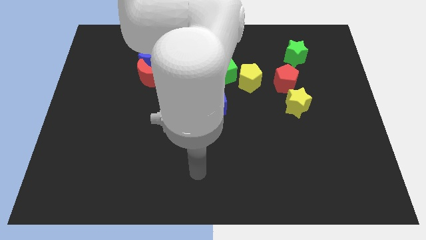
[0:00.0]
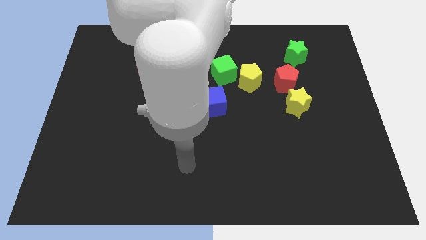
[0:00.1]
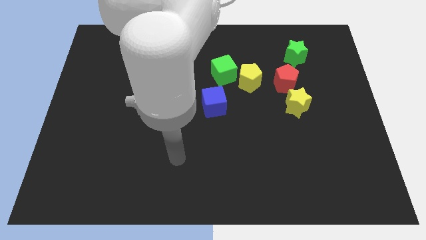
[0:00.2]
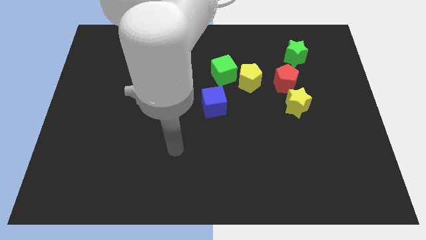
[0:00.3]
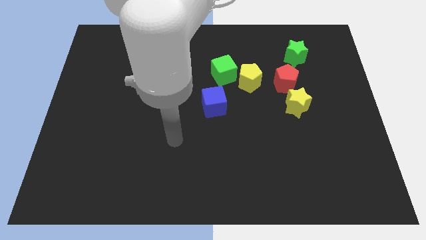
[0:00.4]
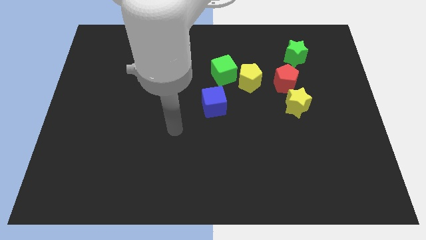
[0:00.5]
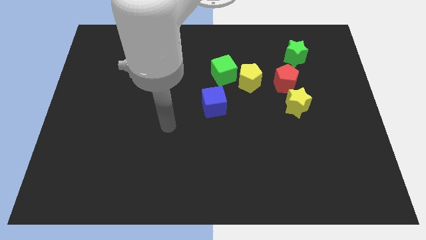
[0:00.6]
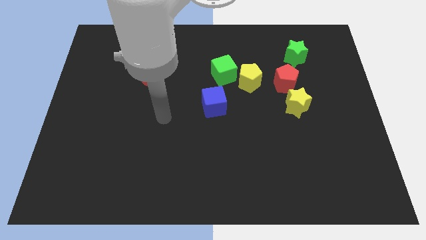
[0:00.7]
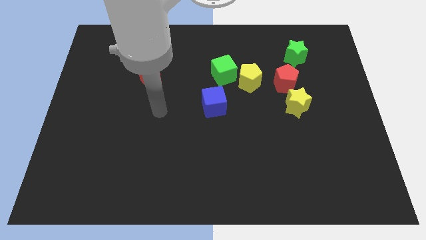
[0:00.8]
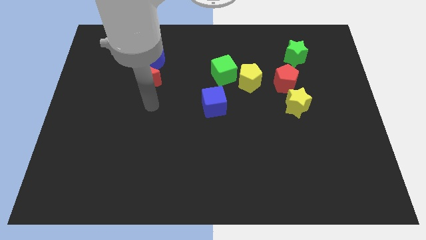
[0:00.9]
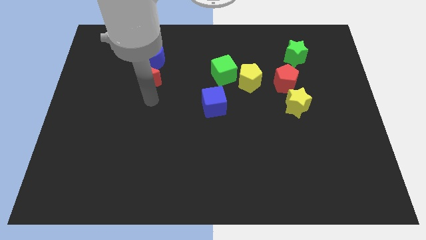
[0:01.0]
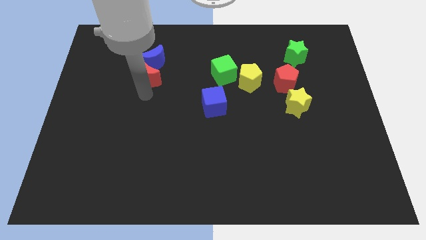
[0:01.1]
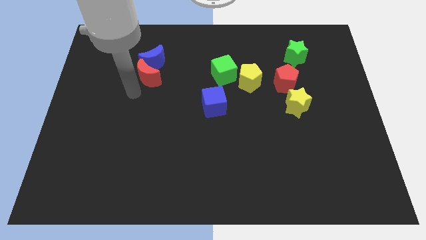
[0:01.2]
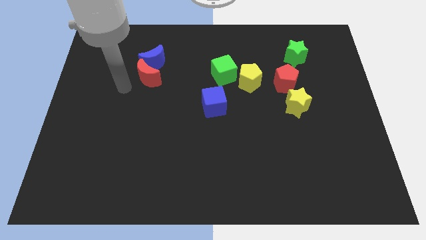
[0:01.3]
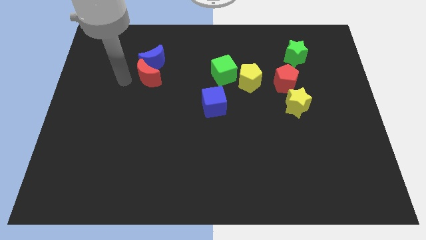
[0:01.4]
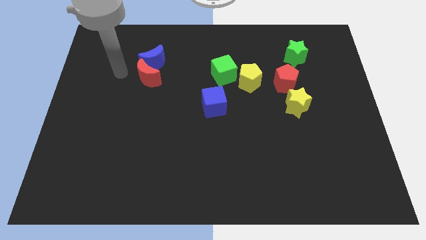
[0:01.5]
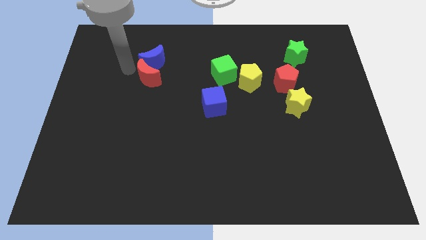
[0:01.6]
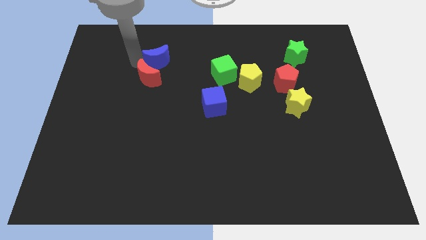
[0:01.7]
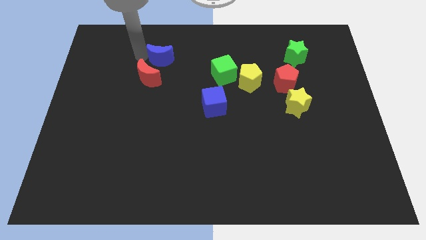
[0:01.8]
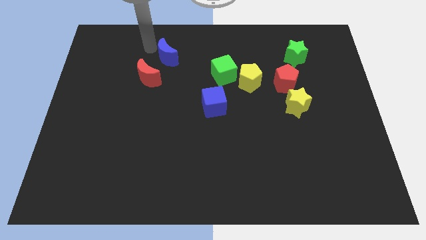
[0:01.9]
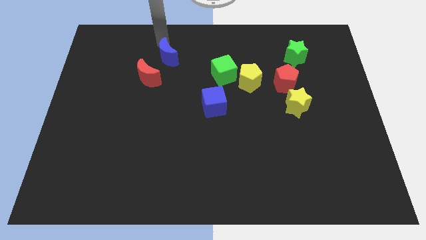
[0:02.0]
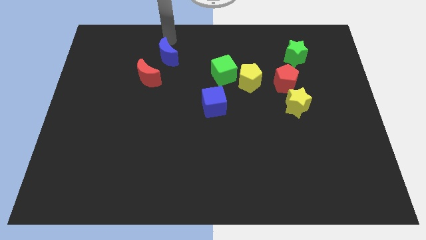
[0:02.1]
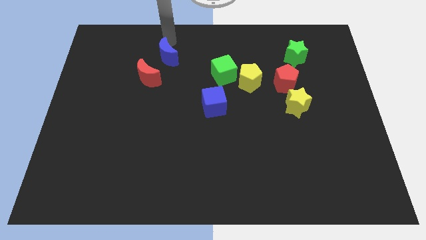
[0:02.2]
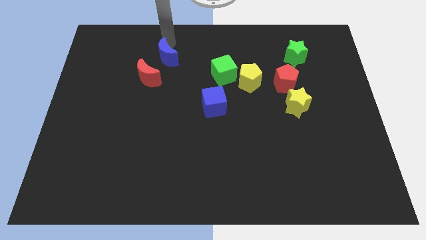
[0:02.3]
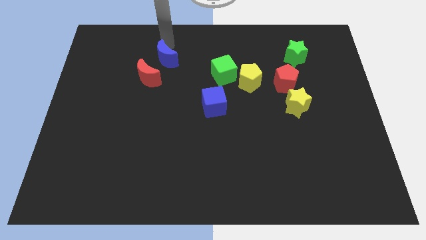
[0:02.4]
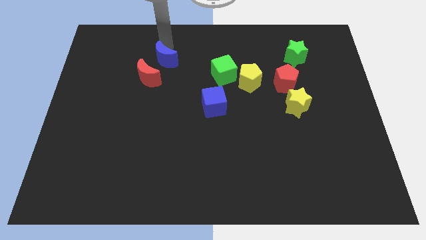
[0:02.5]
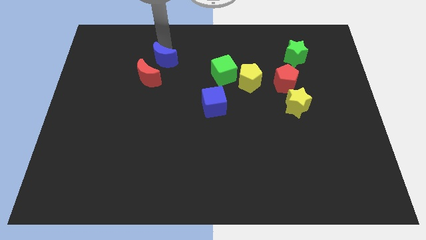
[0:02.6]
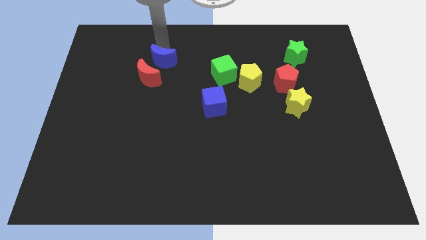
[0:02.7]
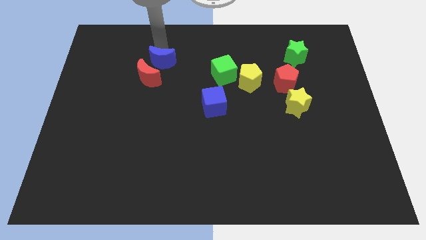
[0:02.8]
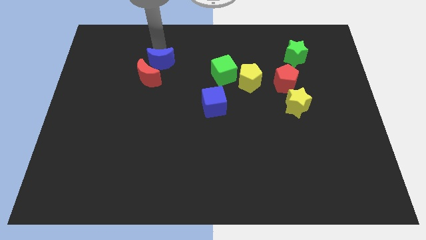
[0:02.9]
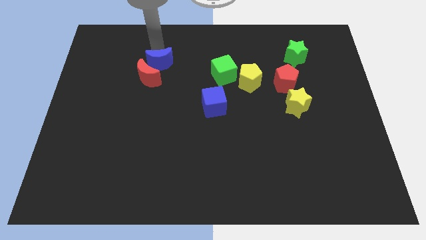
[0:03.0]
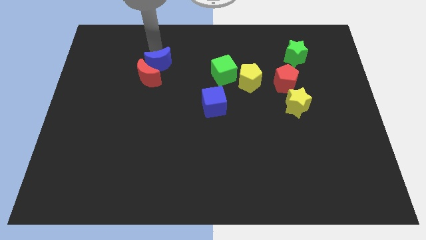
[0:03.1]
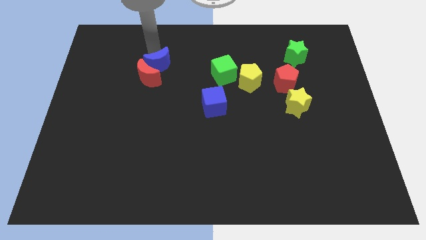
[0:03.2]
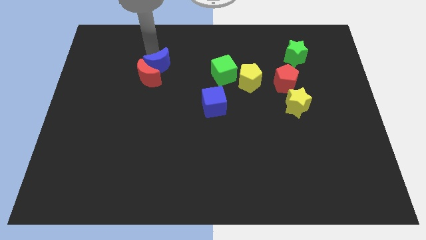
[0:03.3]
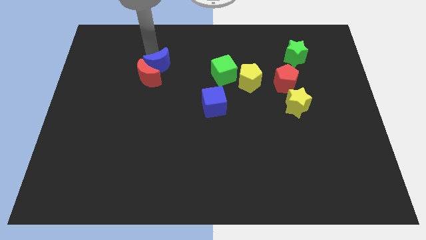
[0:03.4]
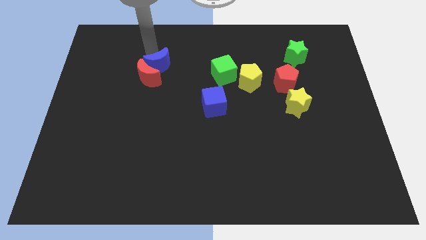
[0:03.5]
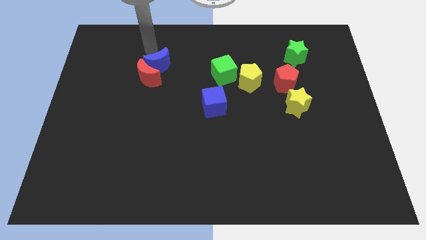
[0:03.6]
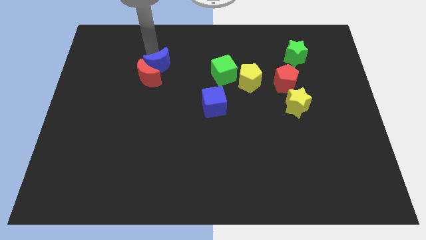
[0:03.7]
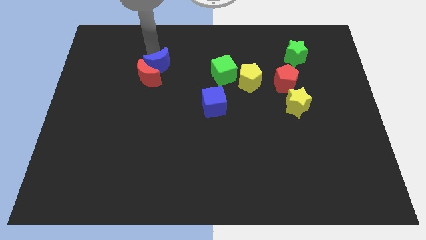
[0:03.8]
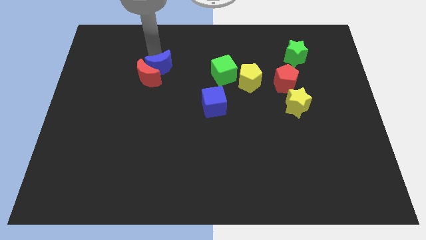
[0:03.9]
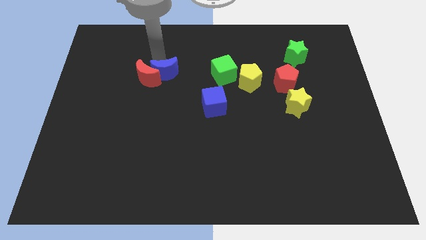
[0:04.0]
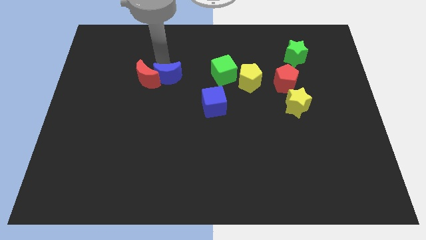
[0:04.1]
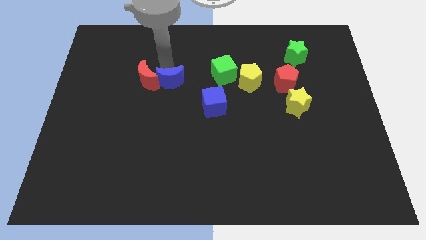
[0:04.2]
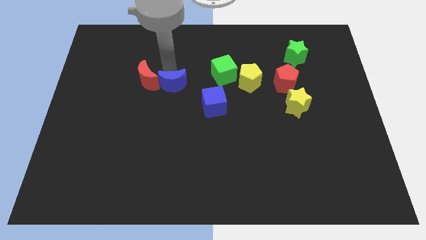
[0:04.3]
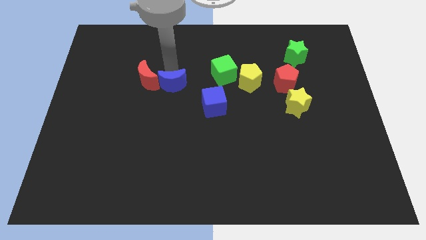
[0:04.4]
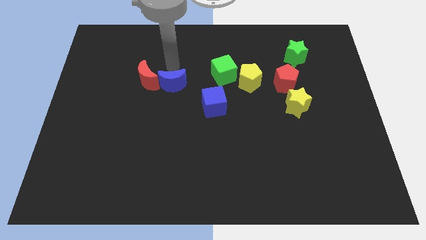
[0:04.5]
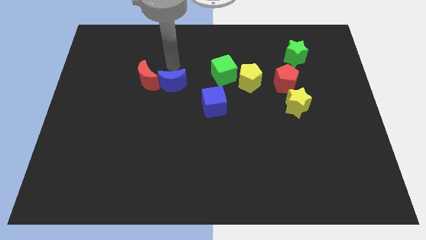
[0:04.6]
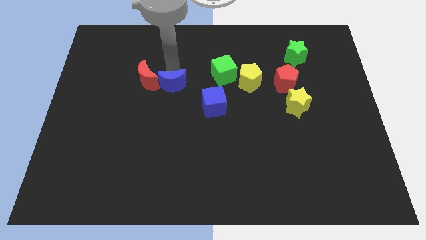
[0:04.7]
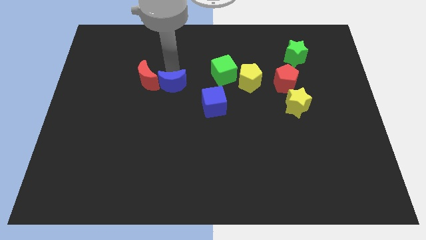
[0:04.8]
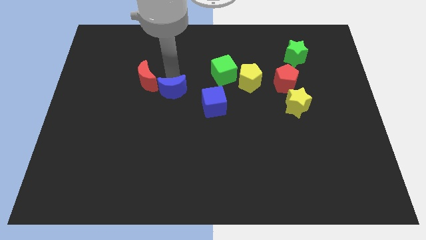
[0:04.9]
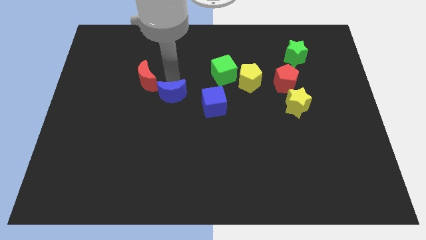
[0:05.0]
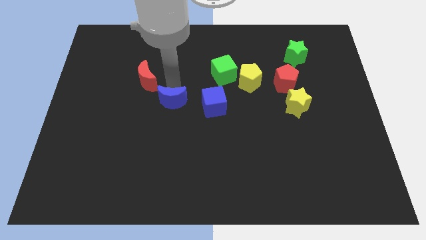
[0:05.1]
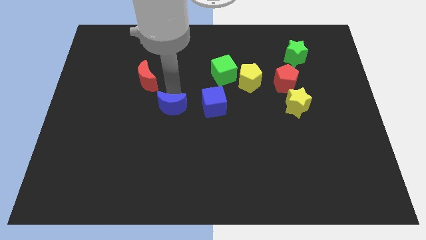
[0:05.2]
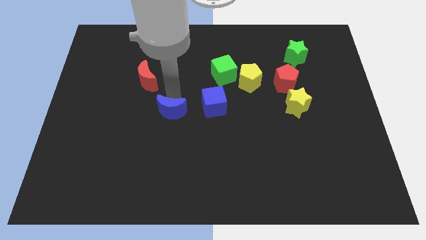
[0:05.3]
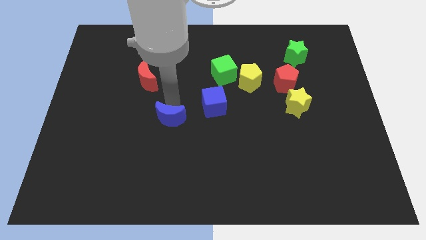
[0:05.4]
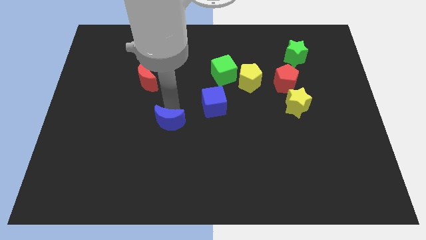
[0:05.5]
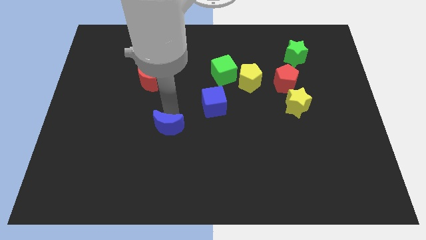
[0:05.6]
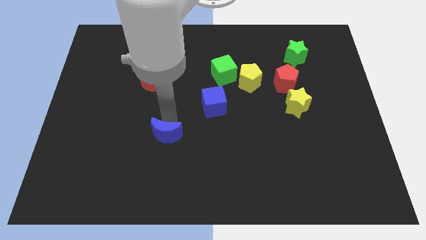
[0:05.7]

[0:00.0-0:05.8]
push the blue moon downwards

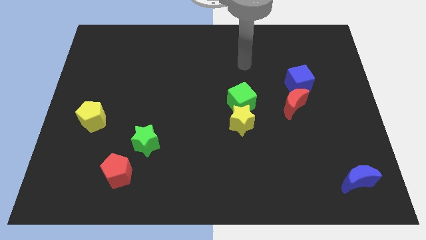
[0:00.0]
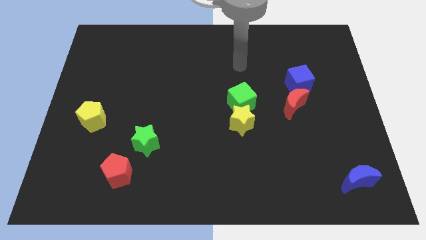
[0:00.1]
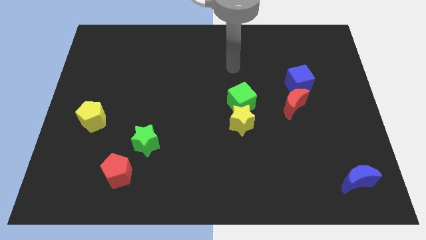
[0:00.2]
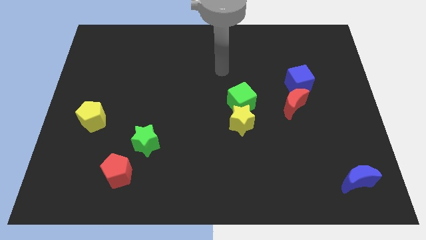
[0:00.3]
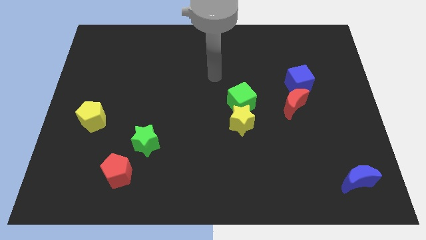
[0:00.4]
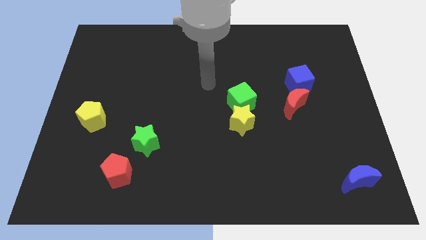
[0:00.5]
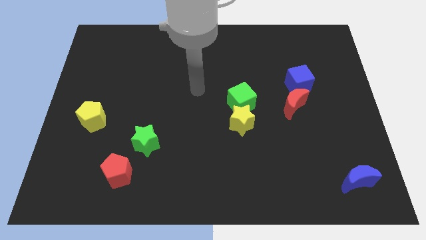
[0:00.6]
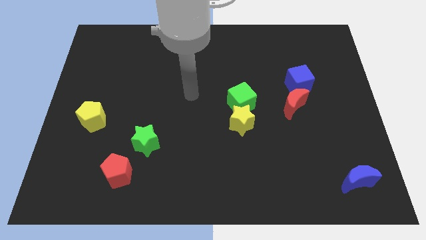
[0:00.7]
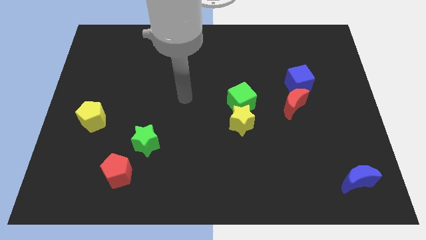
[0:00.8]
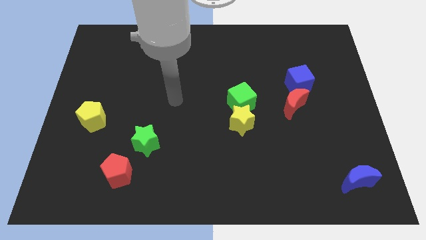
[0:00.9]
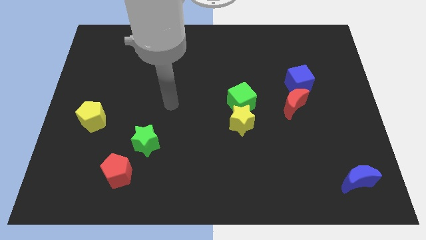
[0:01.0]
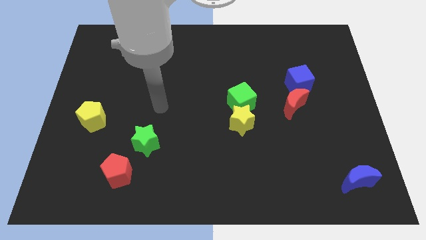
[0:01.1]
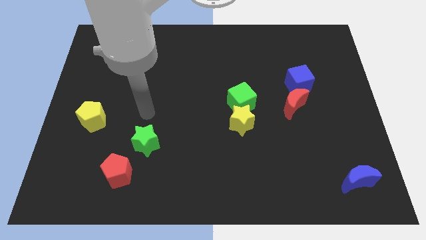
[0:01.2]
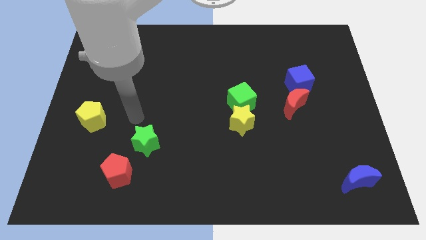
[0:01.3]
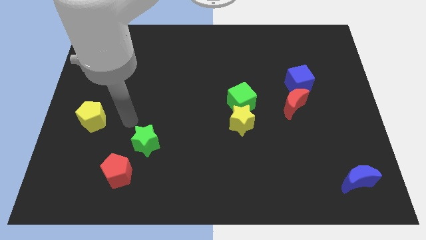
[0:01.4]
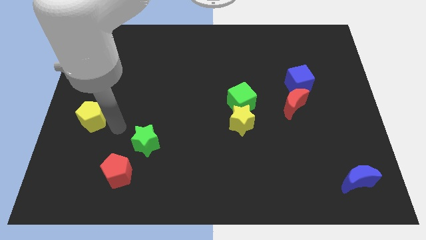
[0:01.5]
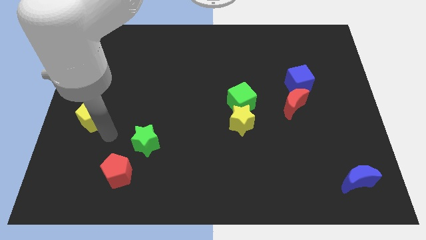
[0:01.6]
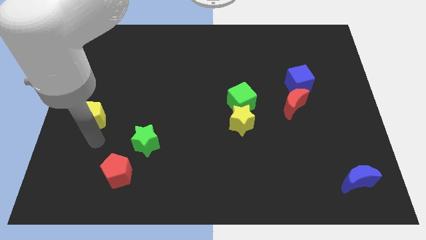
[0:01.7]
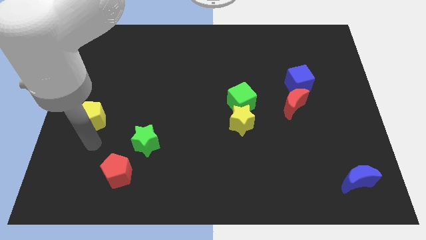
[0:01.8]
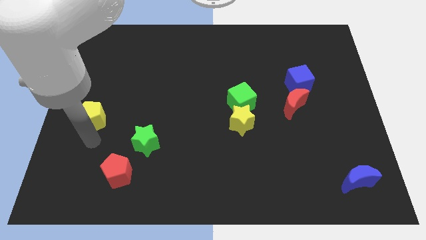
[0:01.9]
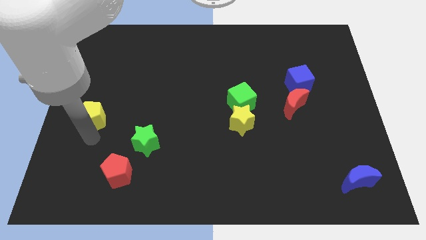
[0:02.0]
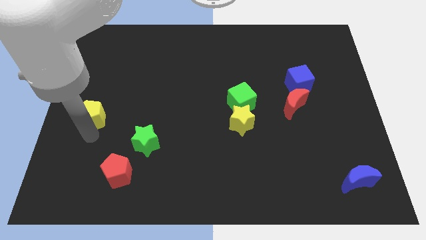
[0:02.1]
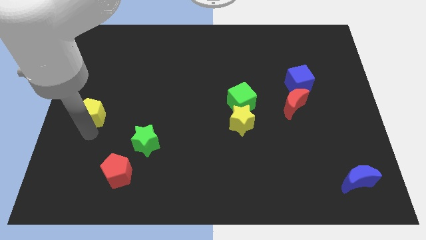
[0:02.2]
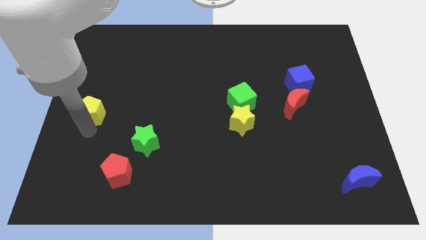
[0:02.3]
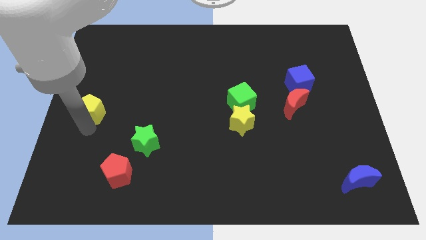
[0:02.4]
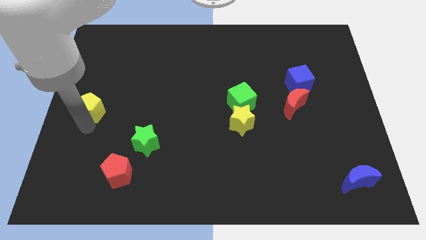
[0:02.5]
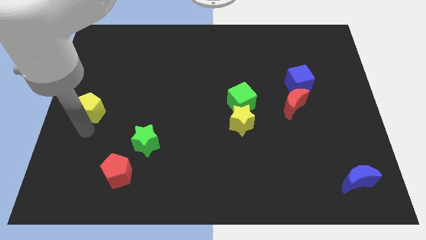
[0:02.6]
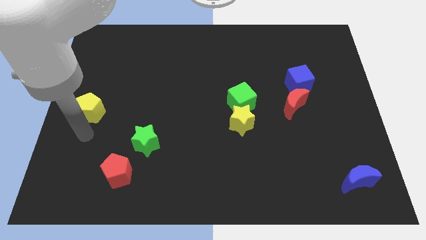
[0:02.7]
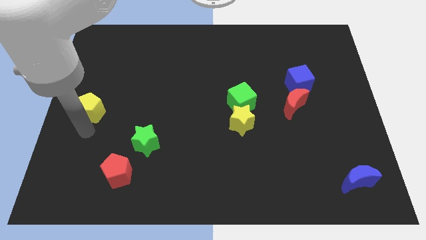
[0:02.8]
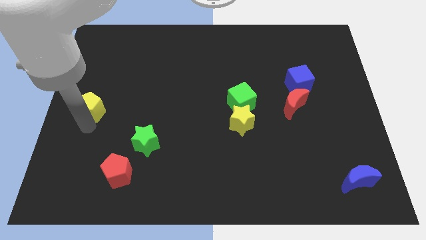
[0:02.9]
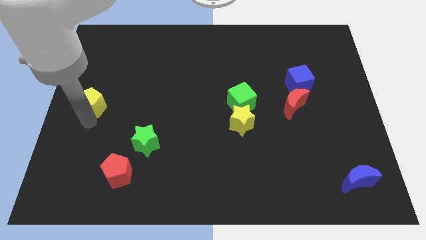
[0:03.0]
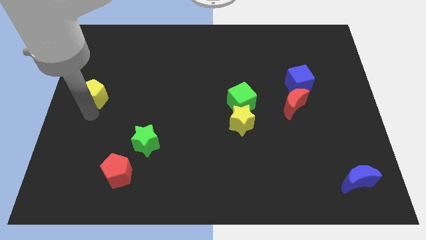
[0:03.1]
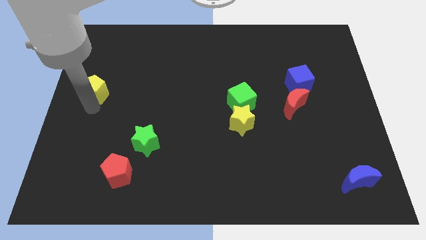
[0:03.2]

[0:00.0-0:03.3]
push the yellow pentagon somewhat upwards
